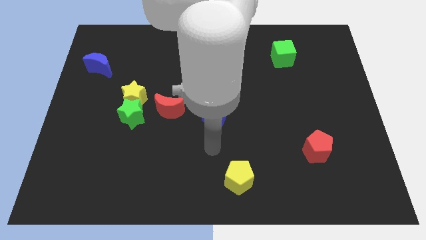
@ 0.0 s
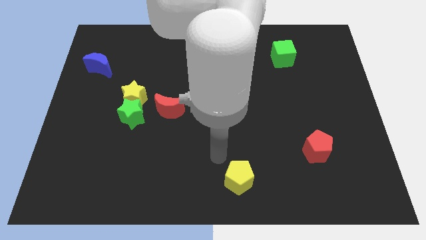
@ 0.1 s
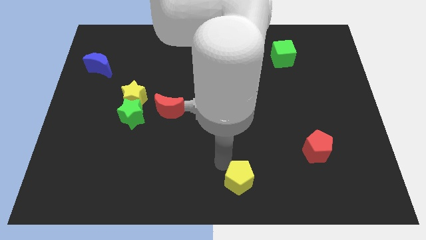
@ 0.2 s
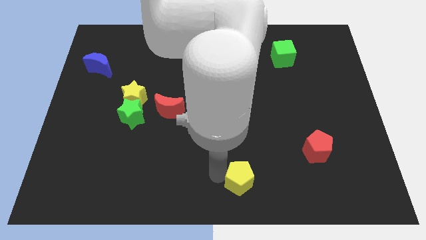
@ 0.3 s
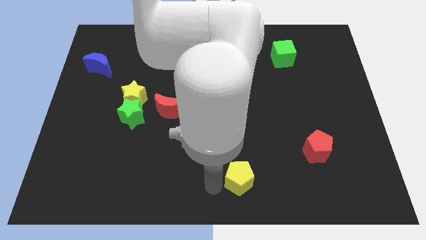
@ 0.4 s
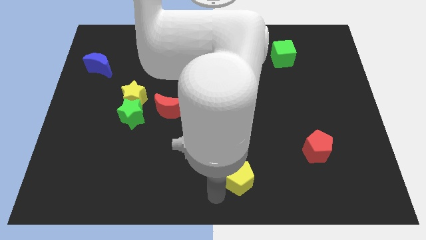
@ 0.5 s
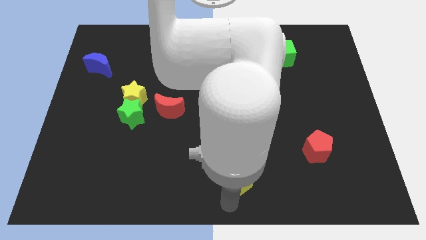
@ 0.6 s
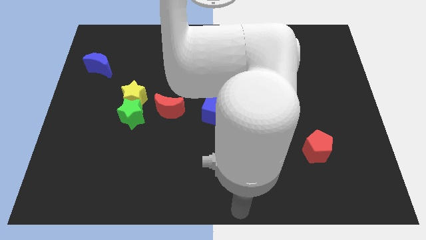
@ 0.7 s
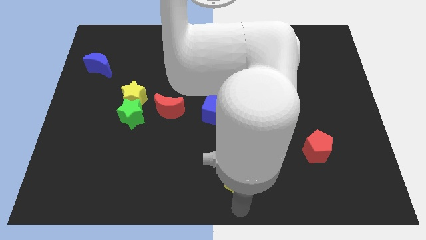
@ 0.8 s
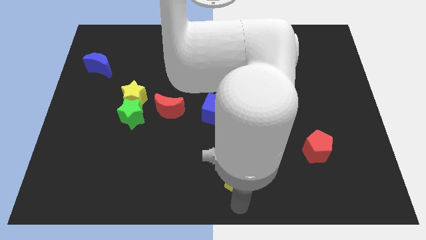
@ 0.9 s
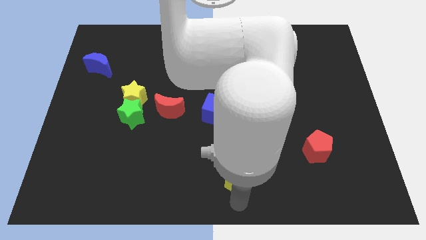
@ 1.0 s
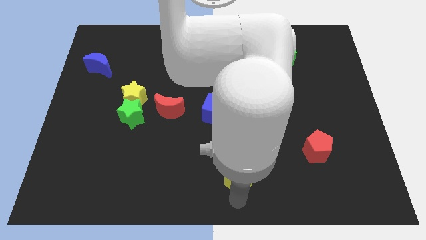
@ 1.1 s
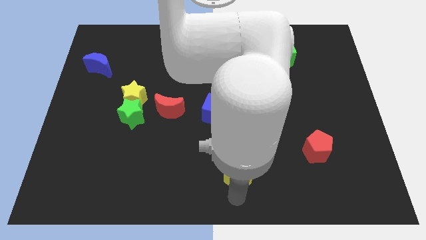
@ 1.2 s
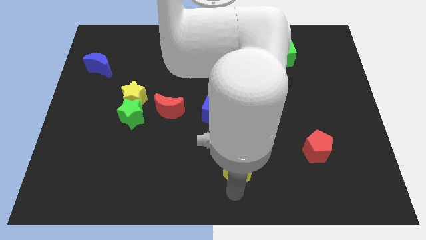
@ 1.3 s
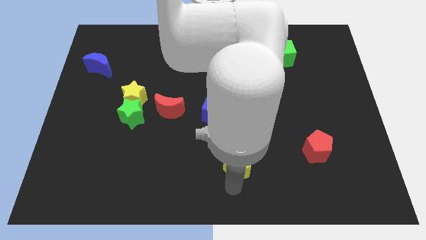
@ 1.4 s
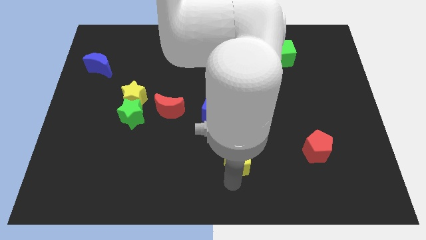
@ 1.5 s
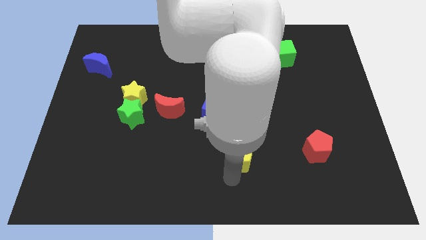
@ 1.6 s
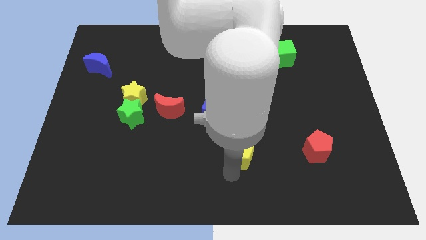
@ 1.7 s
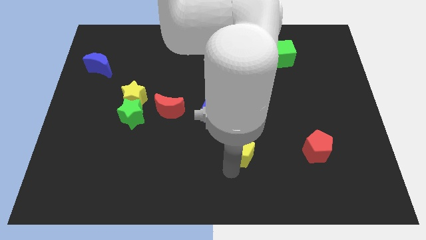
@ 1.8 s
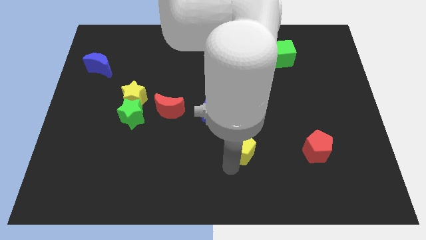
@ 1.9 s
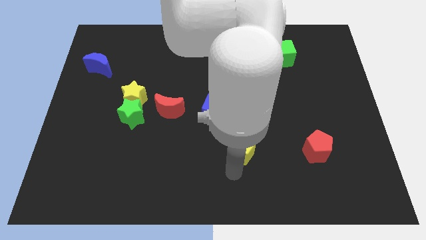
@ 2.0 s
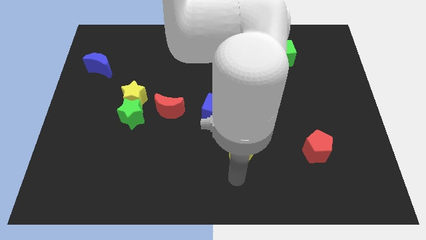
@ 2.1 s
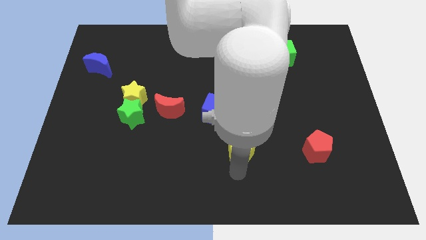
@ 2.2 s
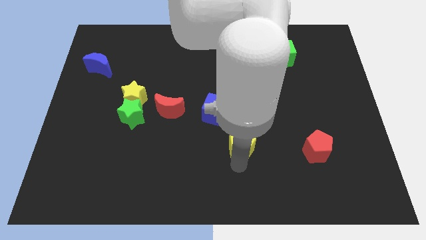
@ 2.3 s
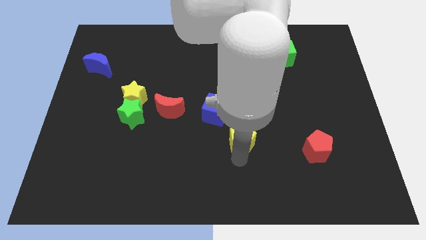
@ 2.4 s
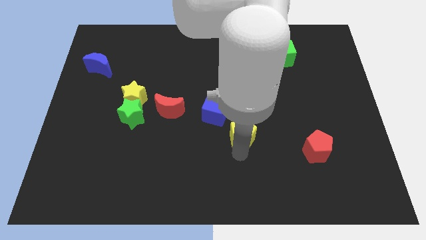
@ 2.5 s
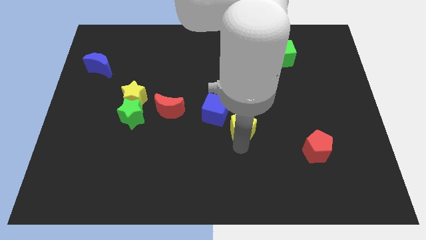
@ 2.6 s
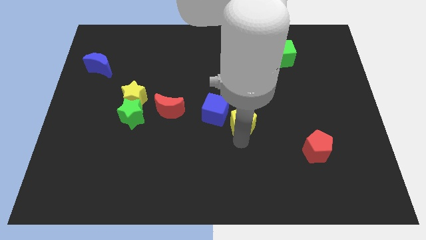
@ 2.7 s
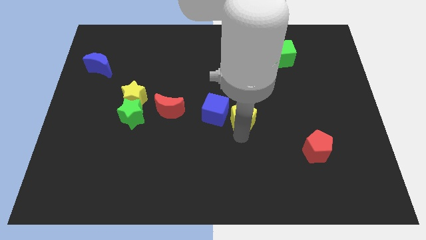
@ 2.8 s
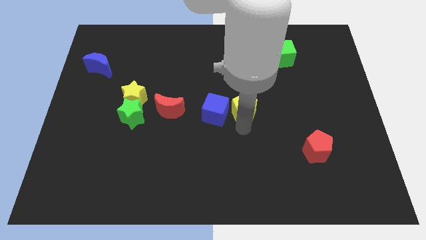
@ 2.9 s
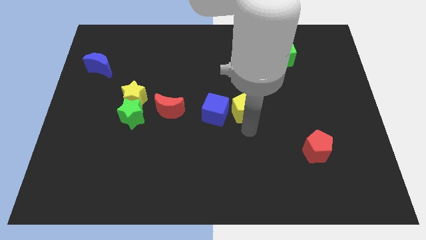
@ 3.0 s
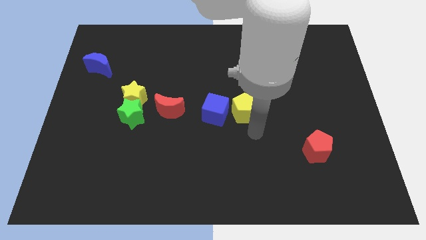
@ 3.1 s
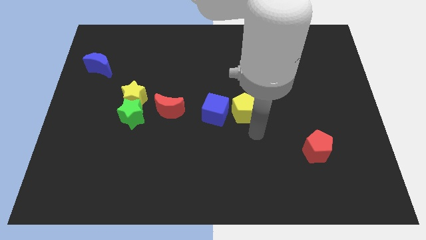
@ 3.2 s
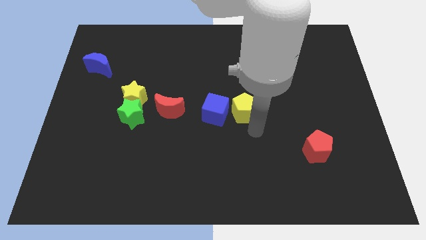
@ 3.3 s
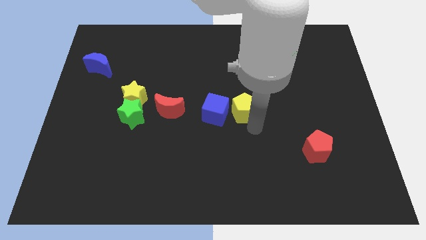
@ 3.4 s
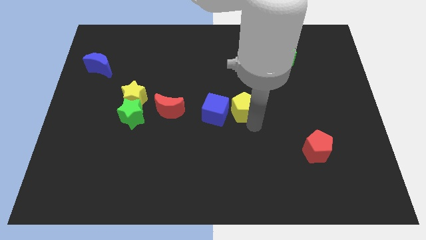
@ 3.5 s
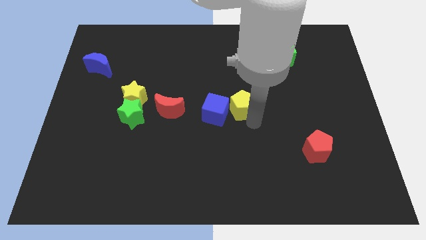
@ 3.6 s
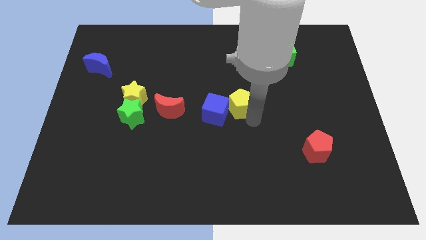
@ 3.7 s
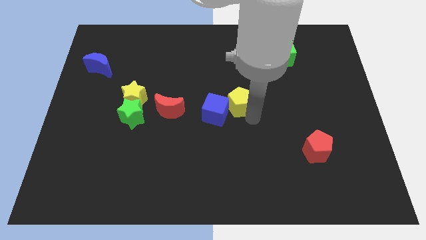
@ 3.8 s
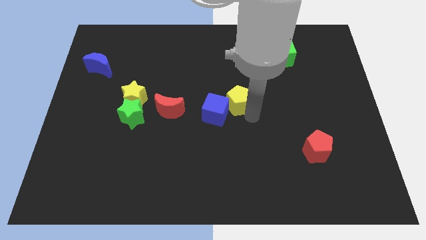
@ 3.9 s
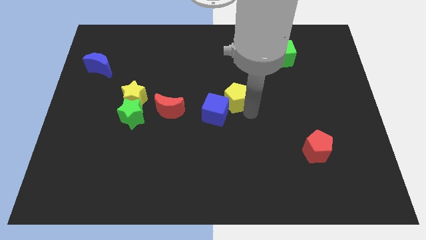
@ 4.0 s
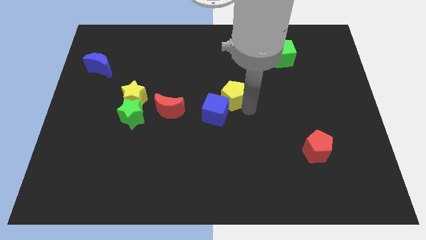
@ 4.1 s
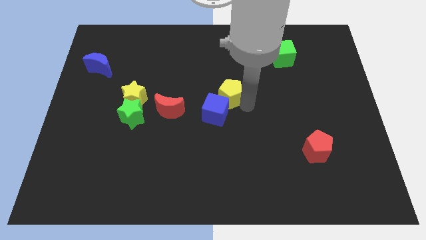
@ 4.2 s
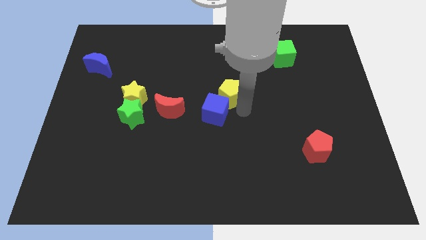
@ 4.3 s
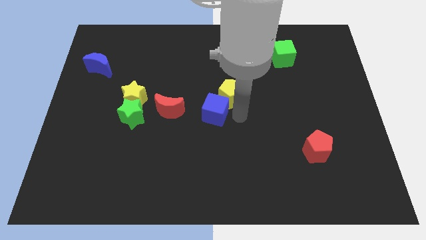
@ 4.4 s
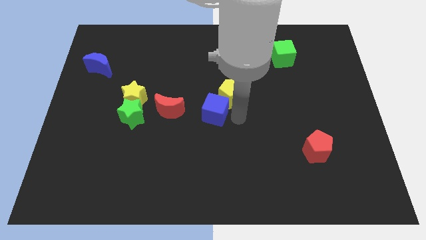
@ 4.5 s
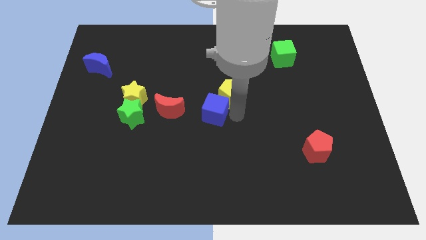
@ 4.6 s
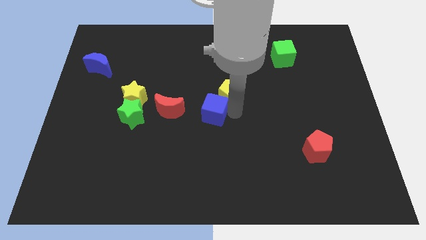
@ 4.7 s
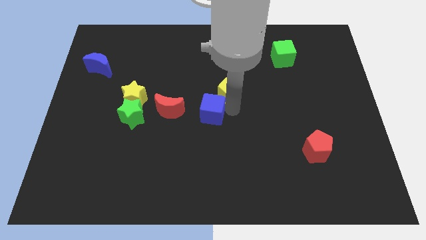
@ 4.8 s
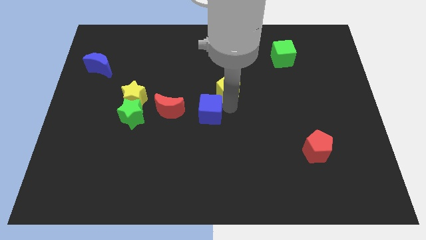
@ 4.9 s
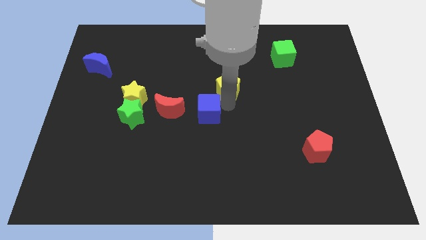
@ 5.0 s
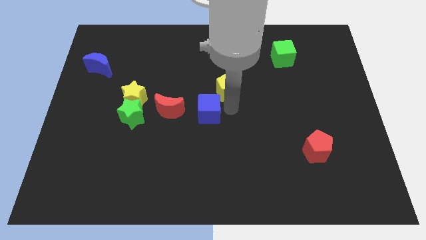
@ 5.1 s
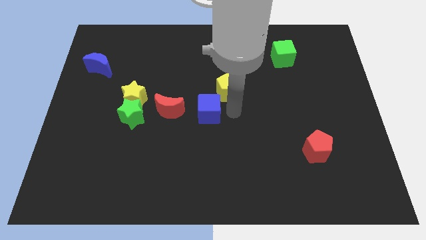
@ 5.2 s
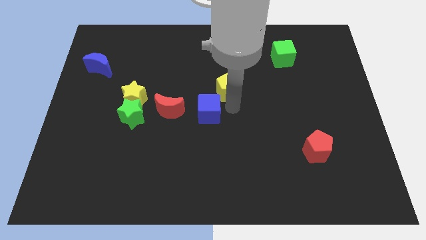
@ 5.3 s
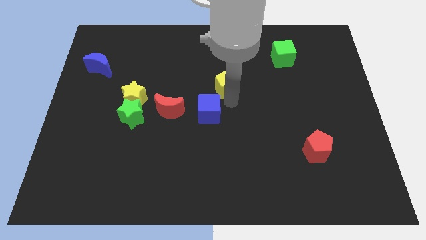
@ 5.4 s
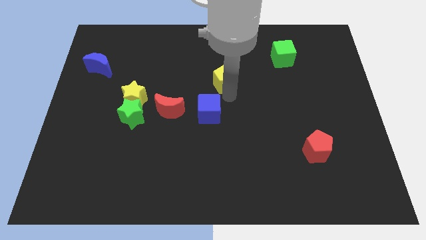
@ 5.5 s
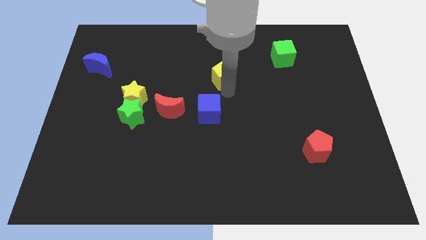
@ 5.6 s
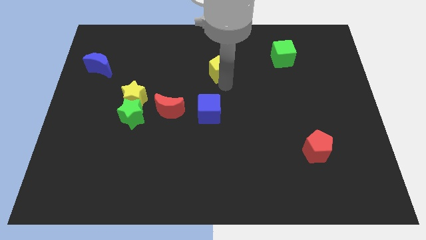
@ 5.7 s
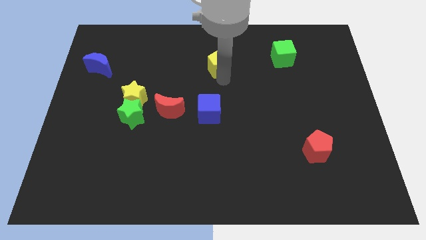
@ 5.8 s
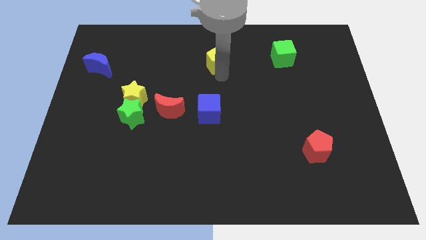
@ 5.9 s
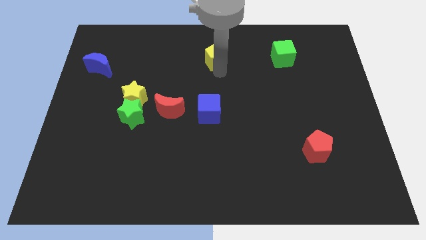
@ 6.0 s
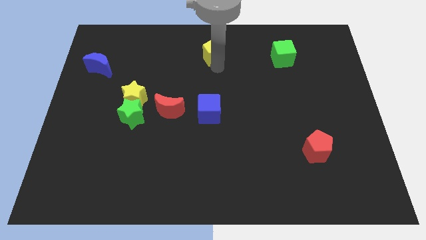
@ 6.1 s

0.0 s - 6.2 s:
push the yellow pentagon to the towards your base

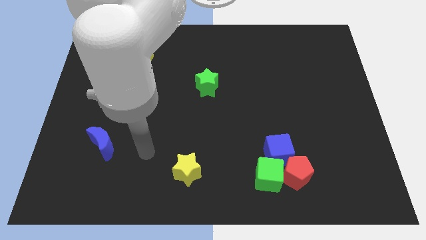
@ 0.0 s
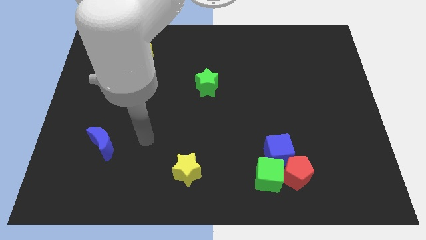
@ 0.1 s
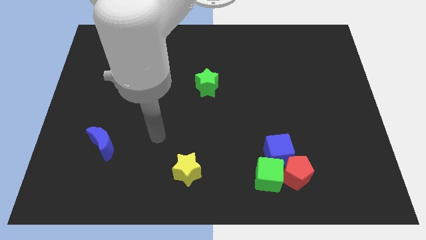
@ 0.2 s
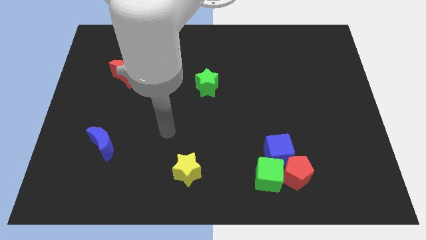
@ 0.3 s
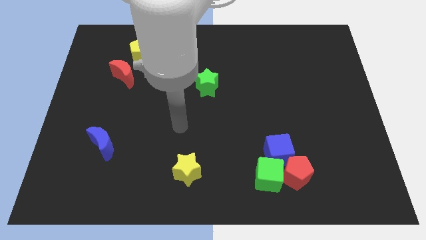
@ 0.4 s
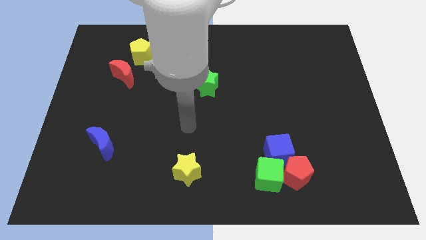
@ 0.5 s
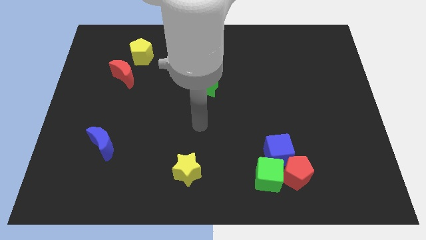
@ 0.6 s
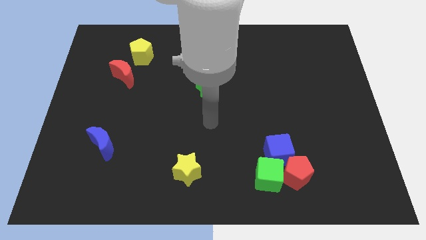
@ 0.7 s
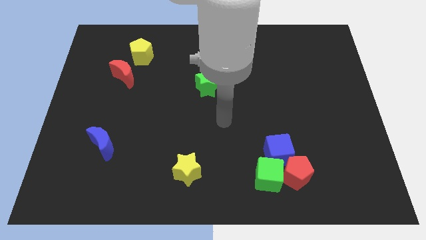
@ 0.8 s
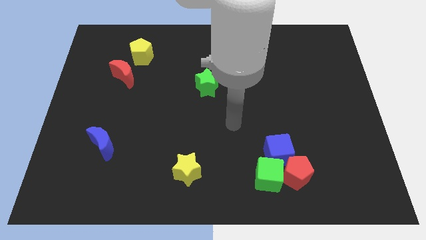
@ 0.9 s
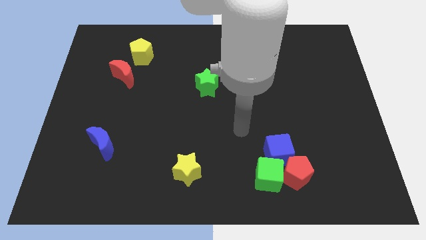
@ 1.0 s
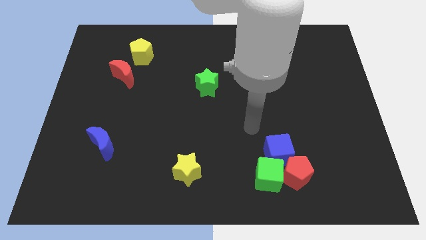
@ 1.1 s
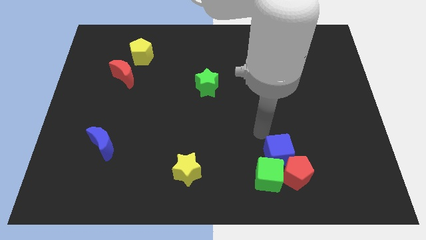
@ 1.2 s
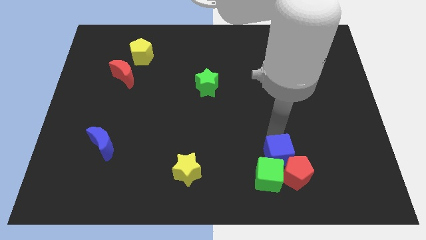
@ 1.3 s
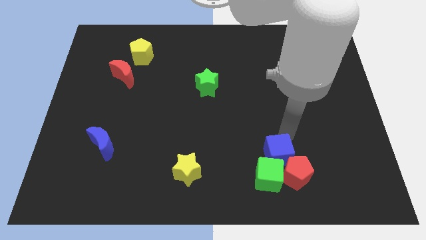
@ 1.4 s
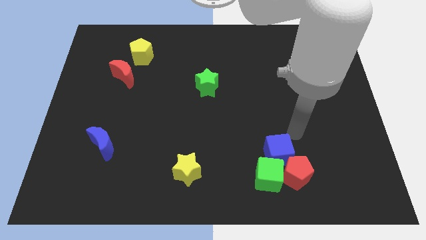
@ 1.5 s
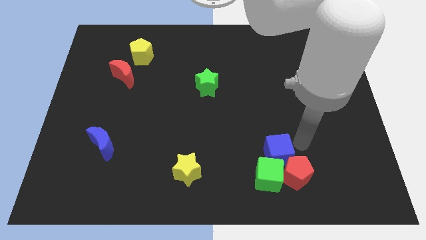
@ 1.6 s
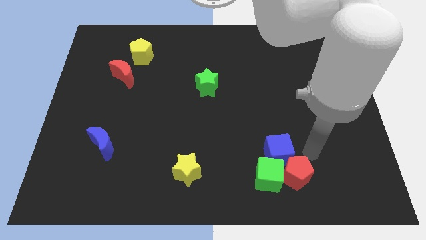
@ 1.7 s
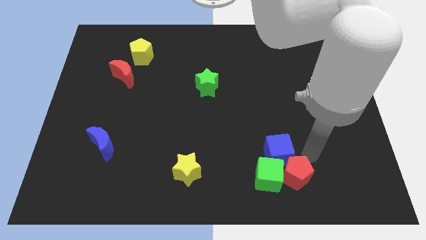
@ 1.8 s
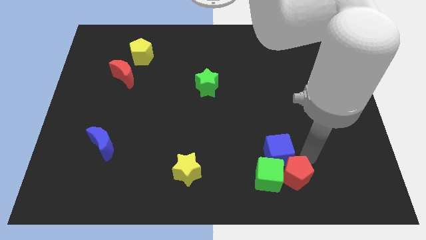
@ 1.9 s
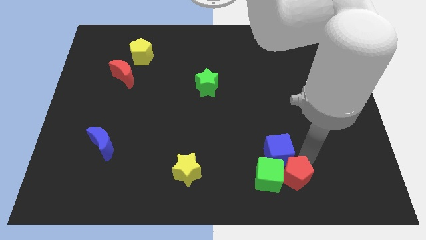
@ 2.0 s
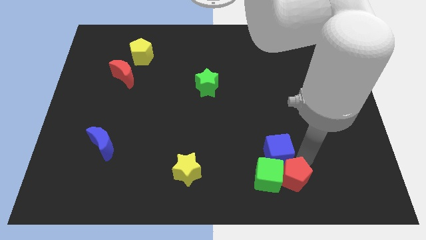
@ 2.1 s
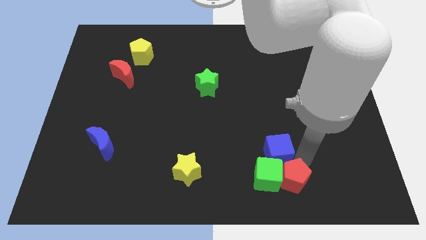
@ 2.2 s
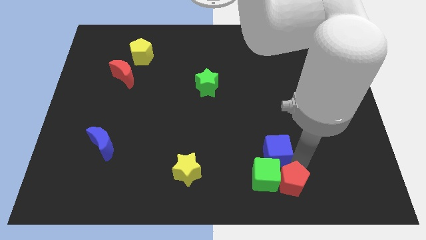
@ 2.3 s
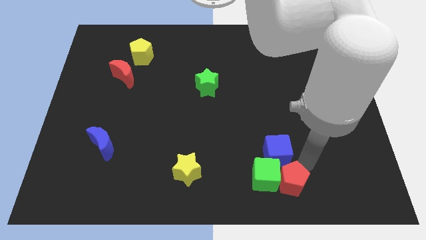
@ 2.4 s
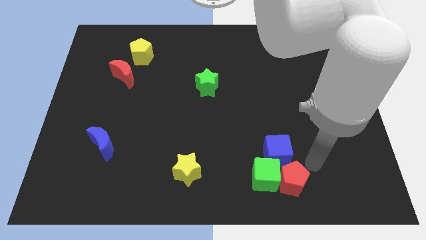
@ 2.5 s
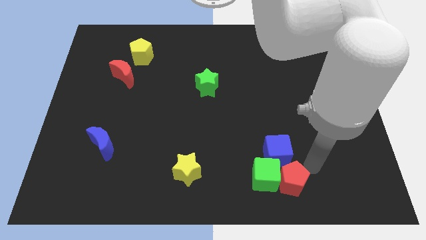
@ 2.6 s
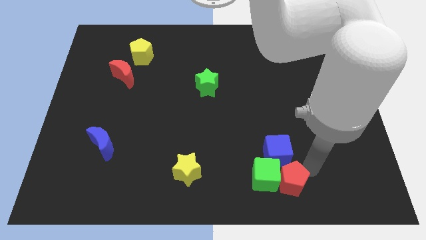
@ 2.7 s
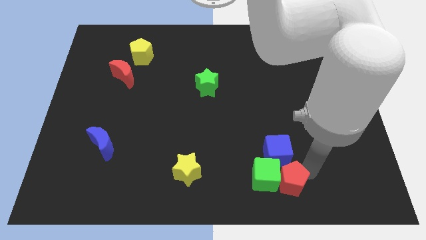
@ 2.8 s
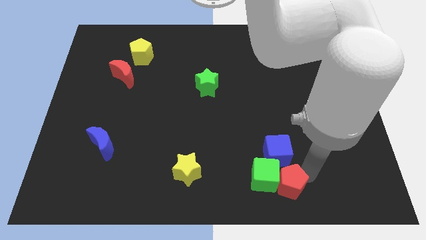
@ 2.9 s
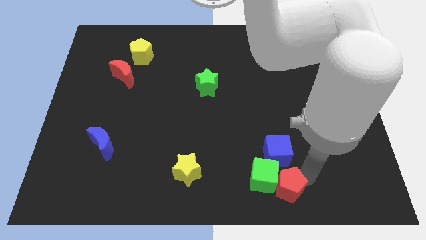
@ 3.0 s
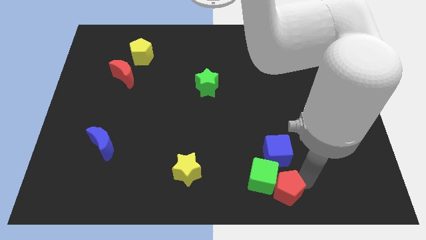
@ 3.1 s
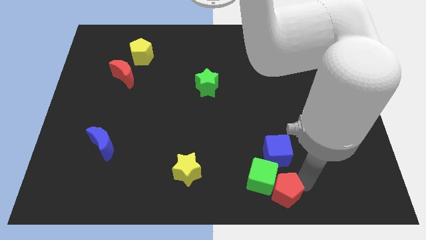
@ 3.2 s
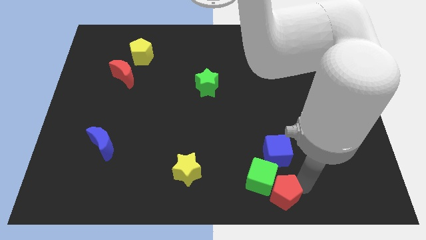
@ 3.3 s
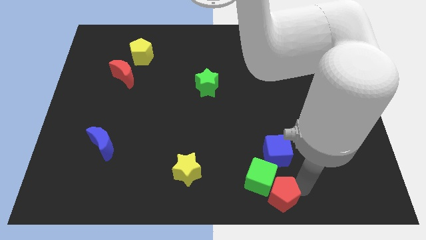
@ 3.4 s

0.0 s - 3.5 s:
put the red pentagon to the bottom side
